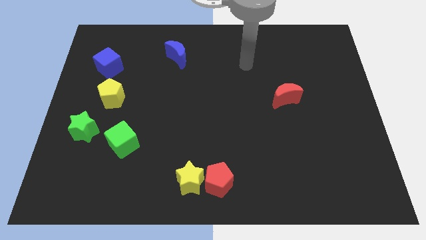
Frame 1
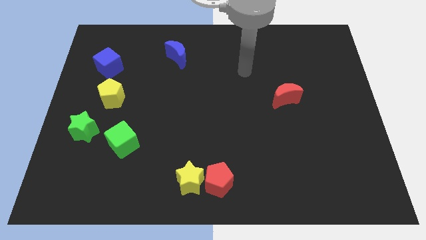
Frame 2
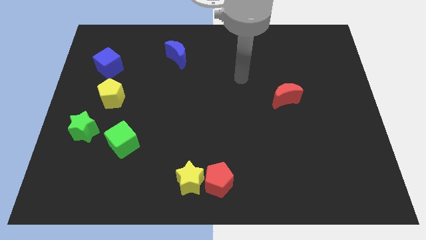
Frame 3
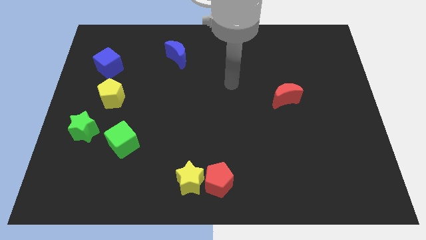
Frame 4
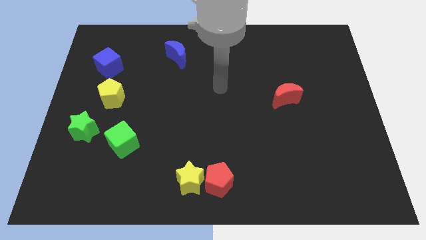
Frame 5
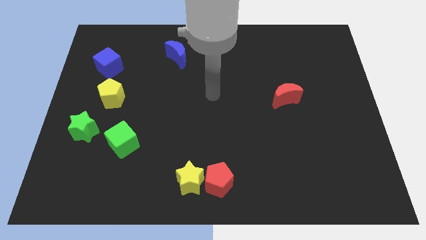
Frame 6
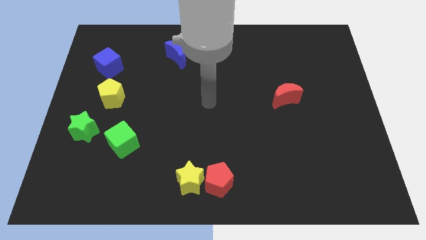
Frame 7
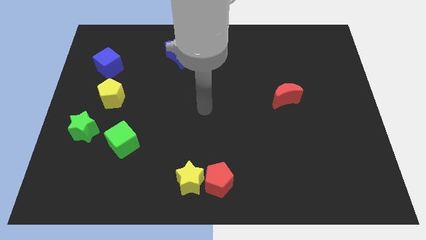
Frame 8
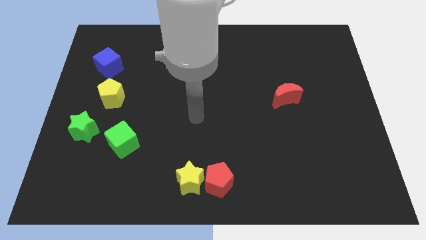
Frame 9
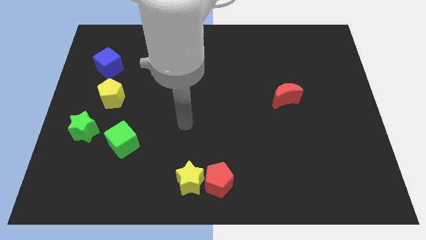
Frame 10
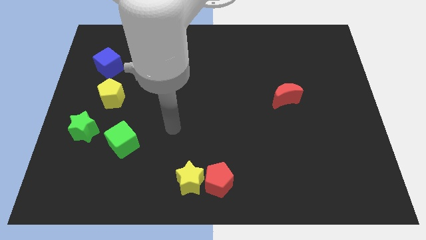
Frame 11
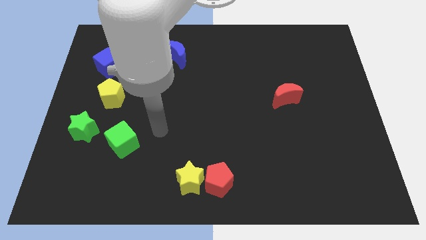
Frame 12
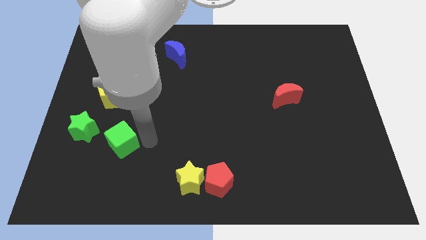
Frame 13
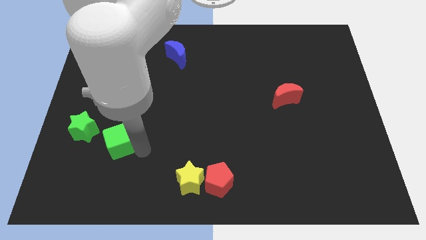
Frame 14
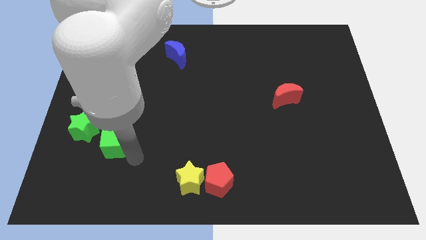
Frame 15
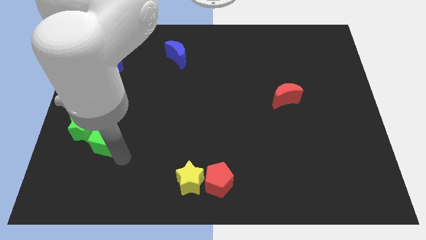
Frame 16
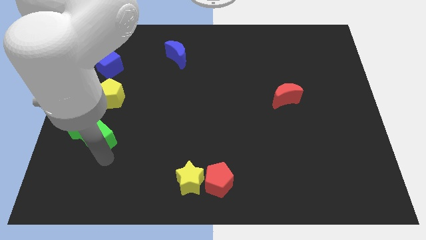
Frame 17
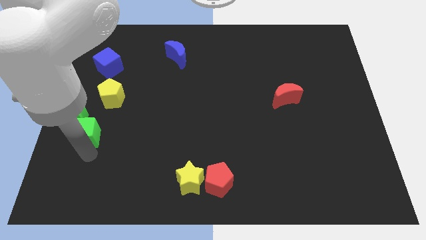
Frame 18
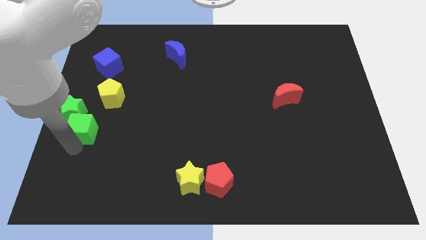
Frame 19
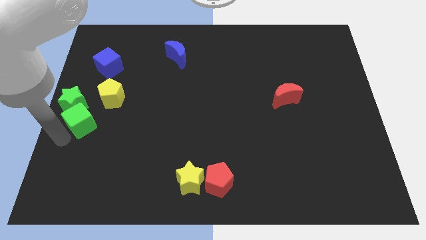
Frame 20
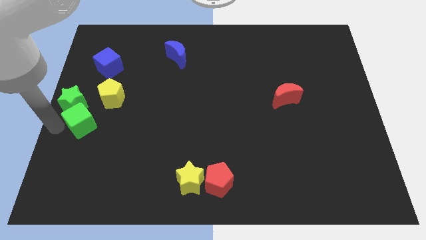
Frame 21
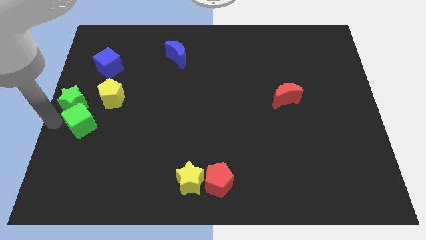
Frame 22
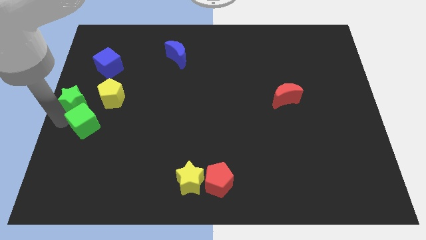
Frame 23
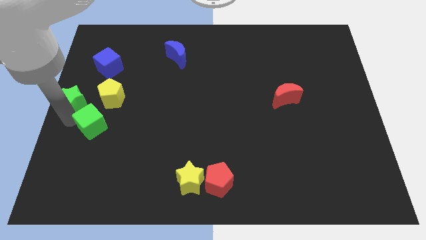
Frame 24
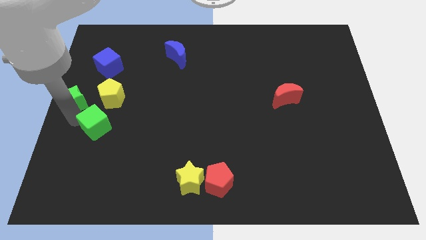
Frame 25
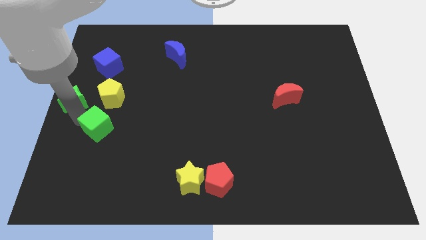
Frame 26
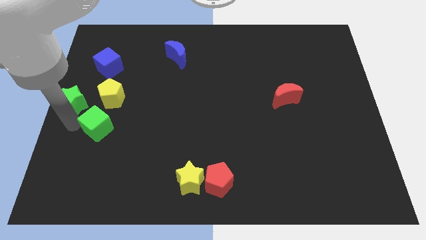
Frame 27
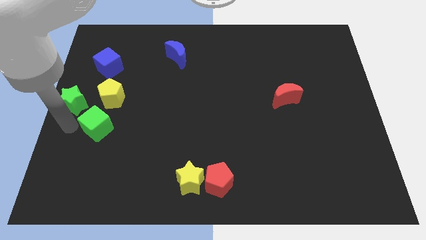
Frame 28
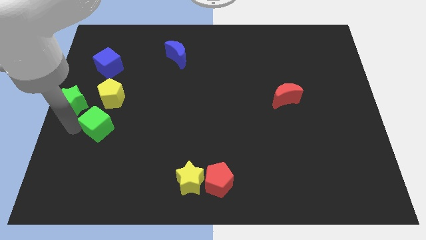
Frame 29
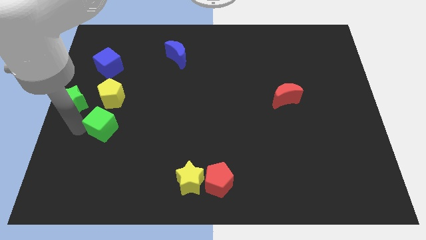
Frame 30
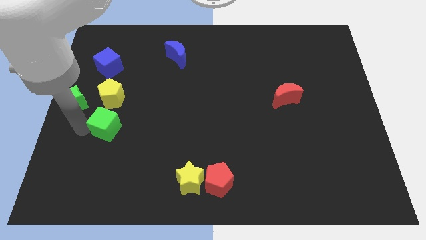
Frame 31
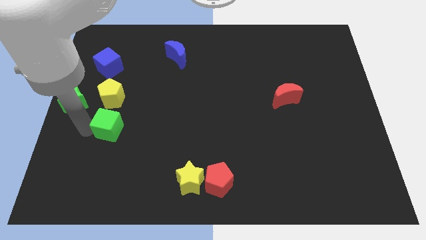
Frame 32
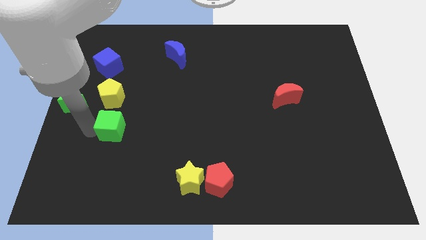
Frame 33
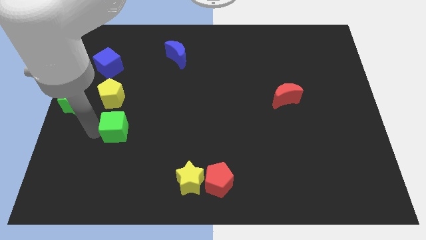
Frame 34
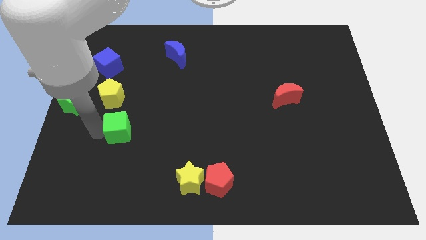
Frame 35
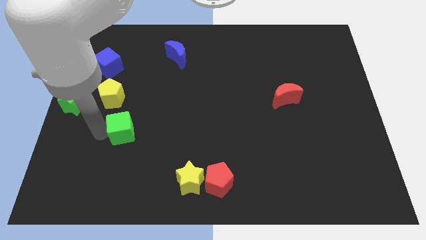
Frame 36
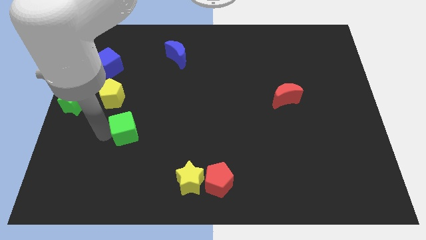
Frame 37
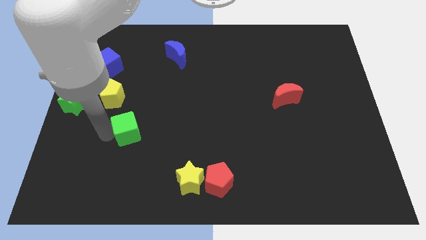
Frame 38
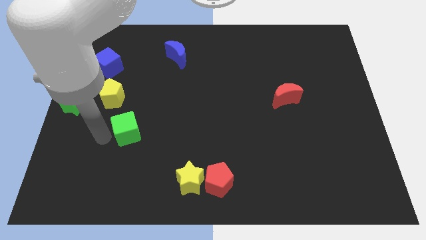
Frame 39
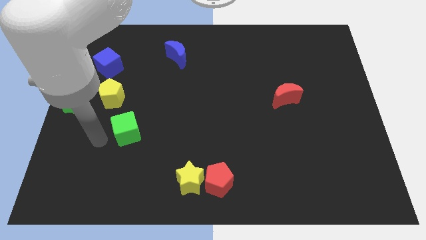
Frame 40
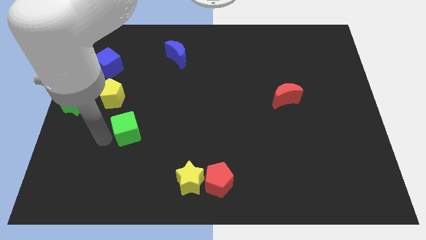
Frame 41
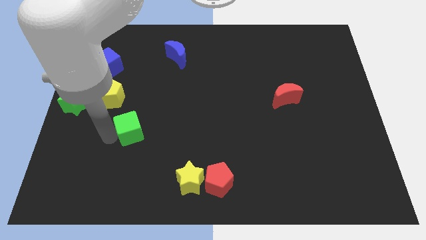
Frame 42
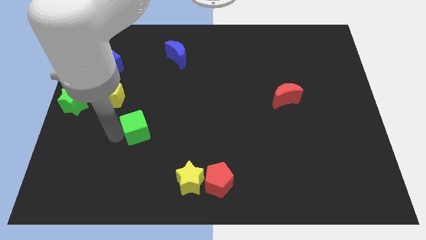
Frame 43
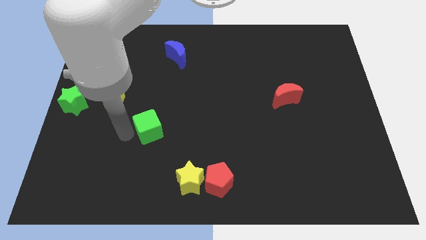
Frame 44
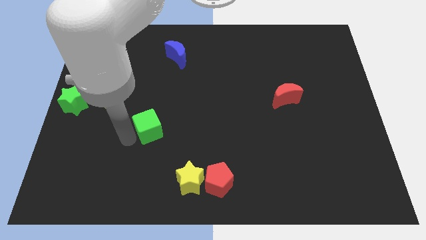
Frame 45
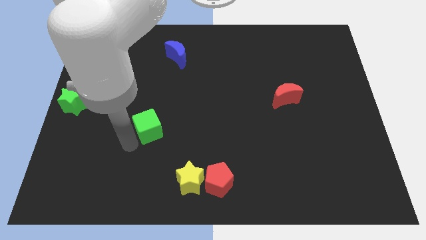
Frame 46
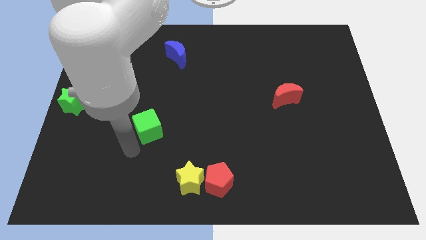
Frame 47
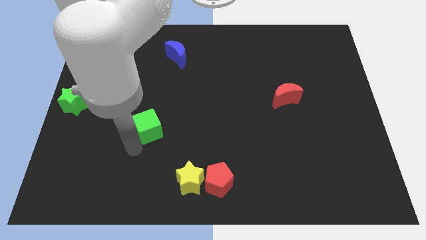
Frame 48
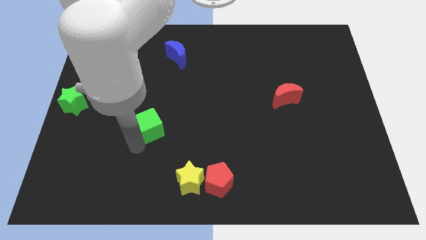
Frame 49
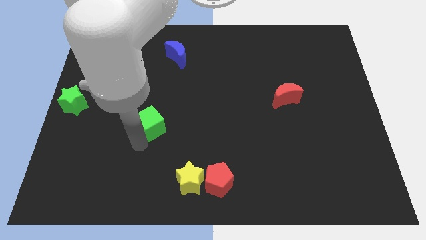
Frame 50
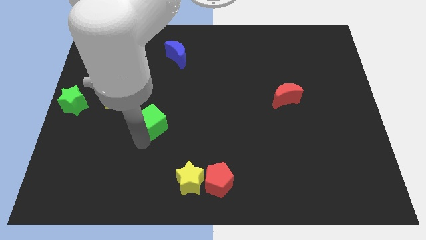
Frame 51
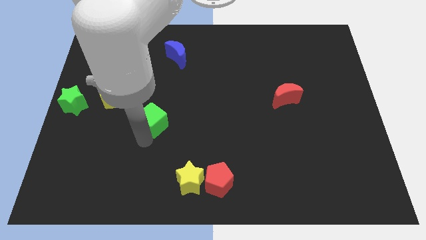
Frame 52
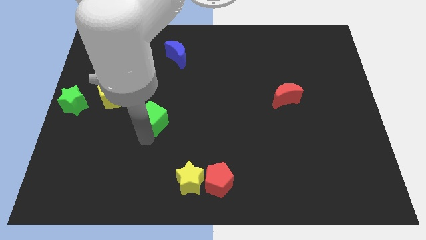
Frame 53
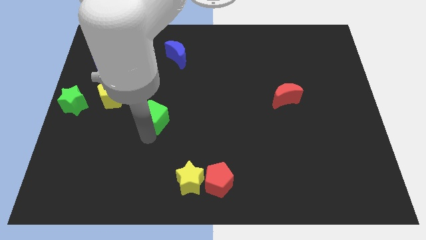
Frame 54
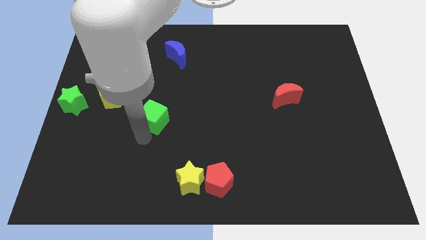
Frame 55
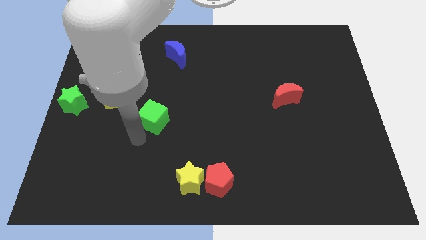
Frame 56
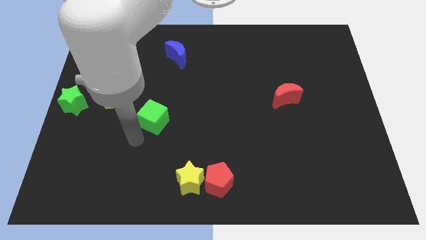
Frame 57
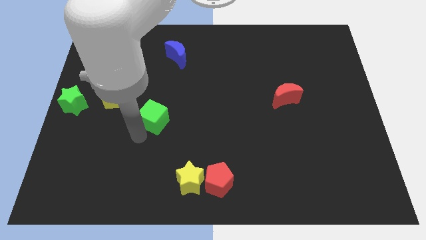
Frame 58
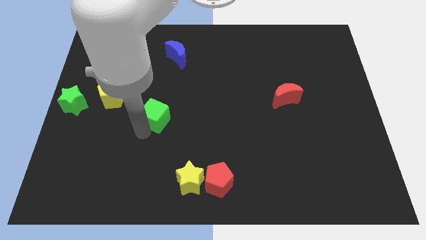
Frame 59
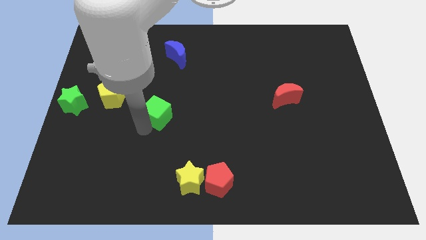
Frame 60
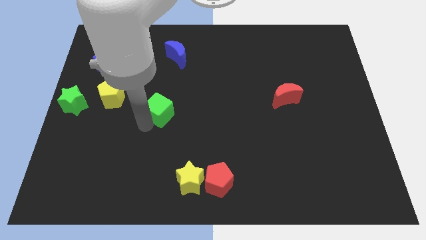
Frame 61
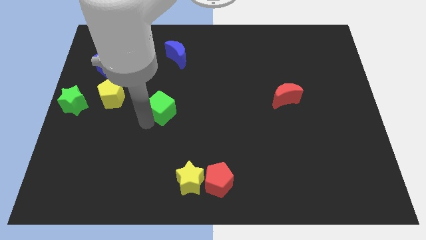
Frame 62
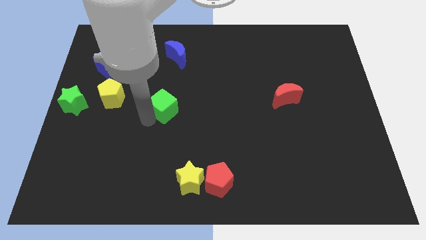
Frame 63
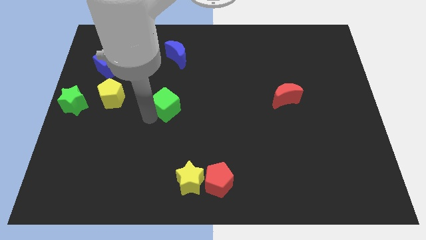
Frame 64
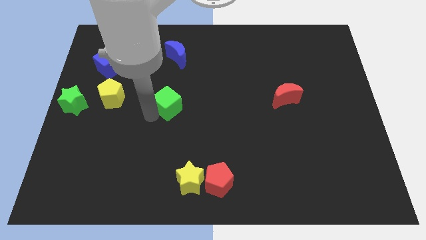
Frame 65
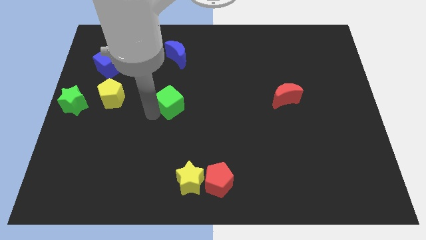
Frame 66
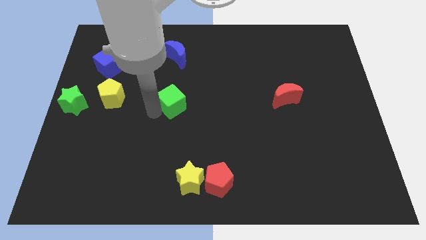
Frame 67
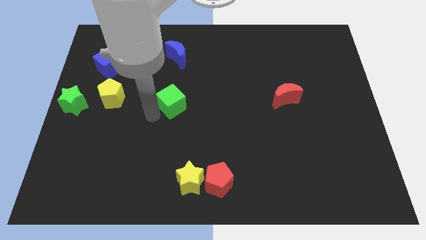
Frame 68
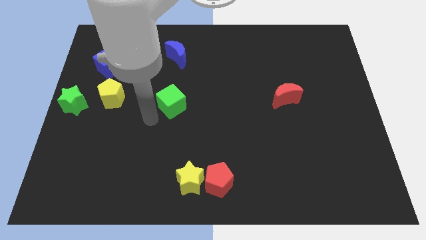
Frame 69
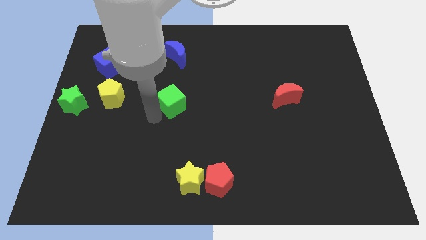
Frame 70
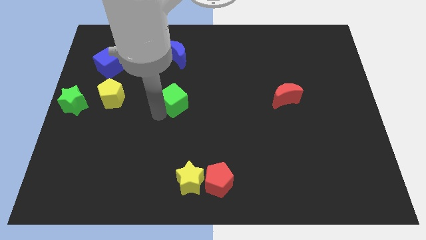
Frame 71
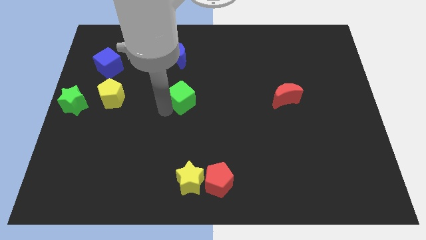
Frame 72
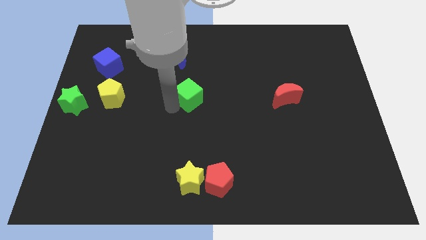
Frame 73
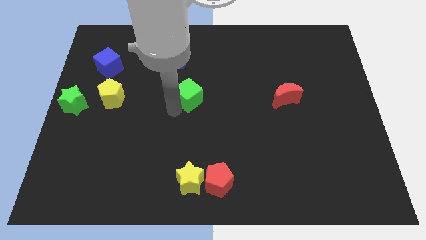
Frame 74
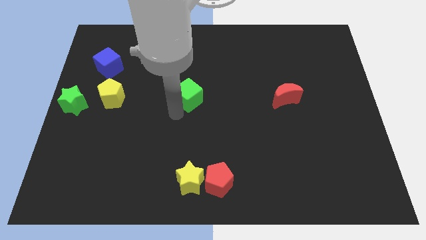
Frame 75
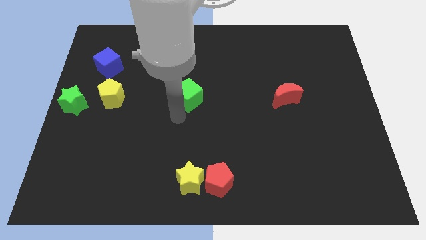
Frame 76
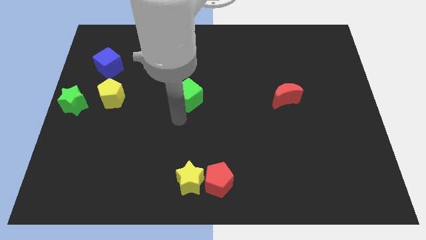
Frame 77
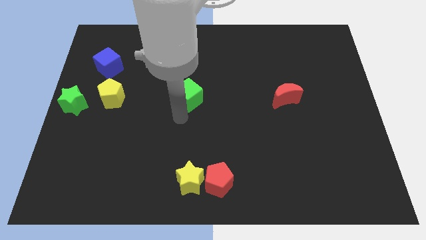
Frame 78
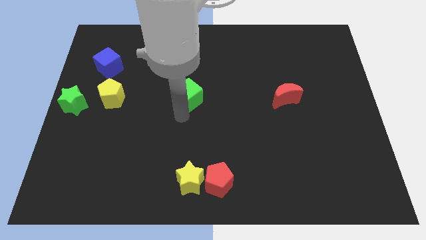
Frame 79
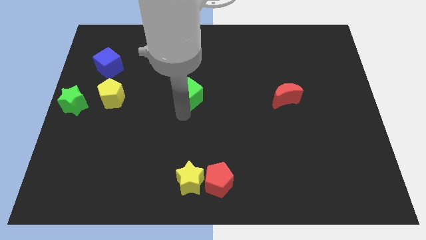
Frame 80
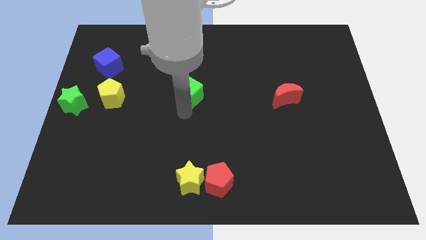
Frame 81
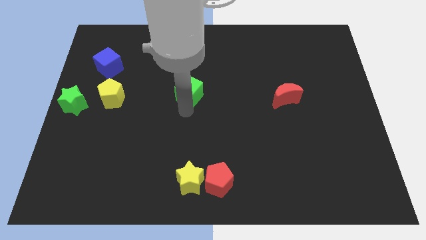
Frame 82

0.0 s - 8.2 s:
slide the green cube diagonally upwards and to the right
